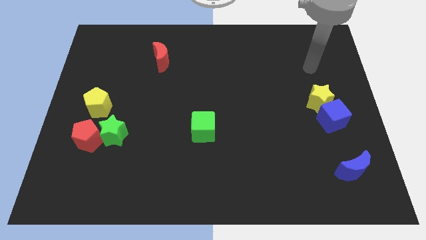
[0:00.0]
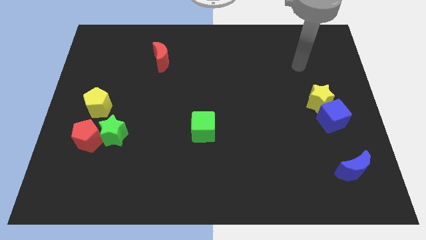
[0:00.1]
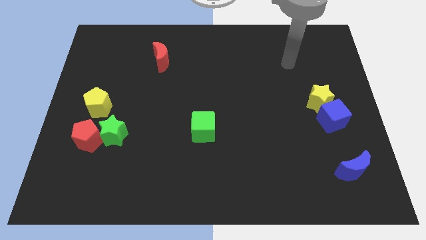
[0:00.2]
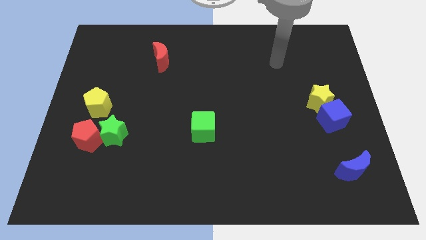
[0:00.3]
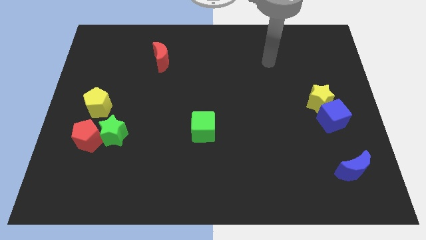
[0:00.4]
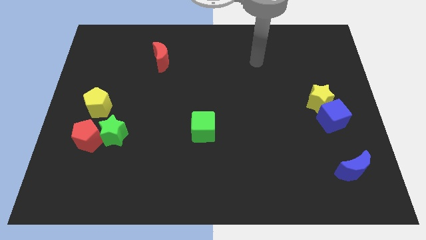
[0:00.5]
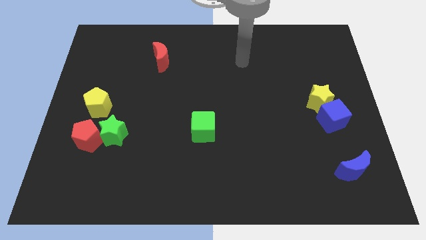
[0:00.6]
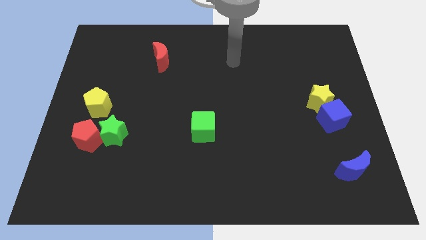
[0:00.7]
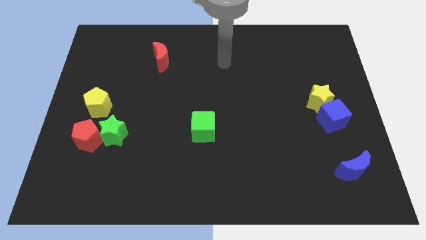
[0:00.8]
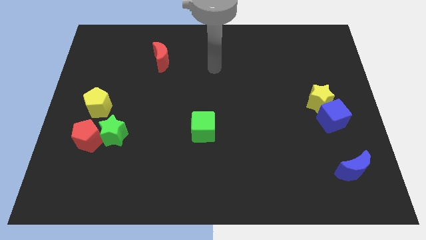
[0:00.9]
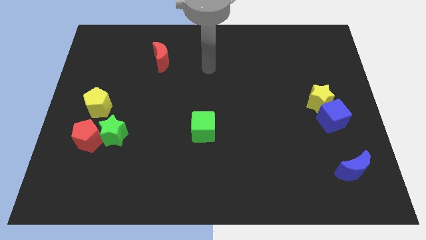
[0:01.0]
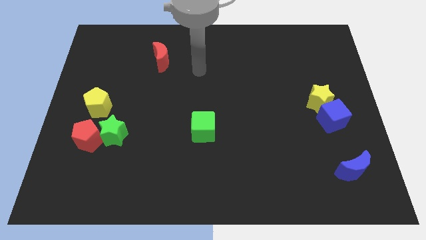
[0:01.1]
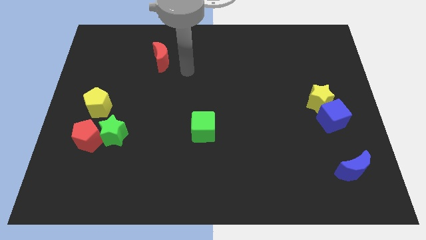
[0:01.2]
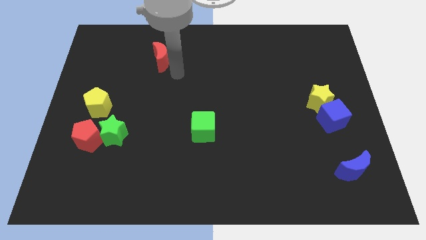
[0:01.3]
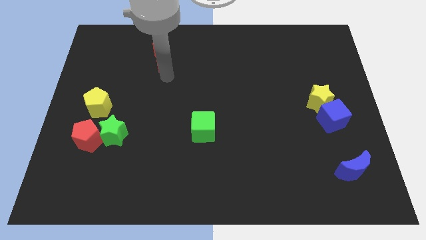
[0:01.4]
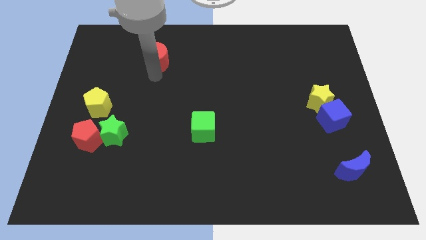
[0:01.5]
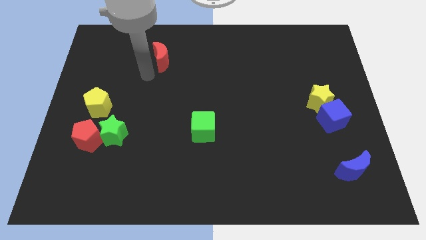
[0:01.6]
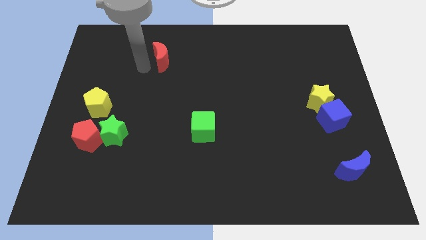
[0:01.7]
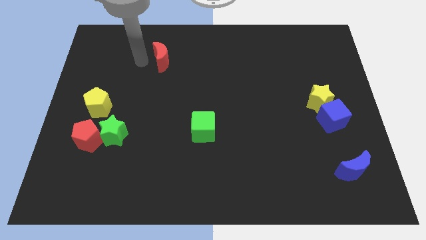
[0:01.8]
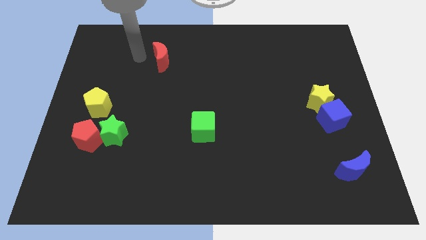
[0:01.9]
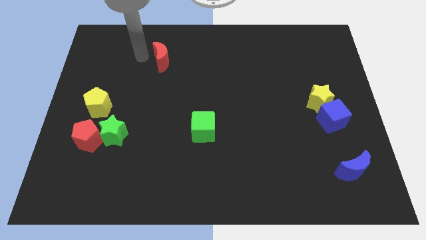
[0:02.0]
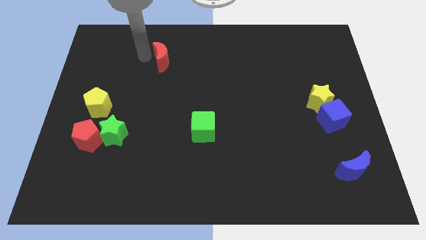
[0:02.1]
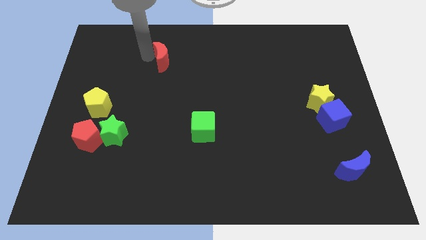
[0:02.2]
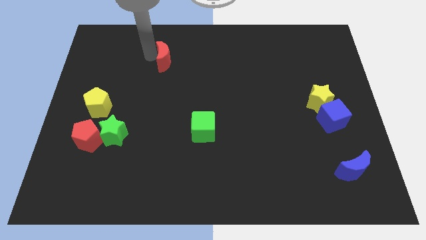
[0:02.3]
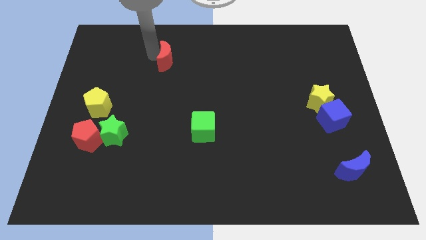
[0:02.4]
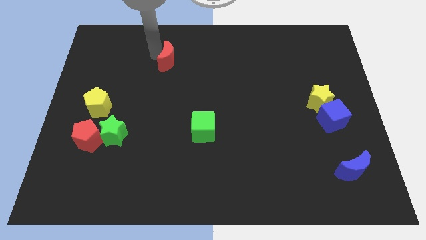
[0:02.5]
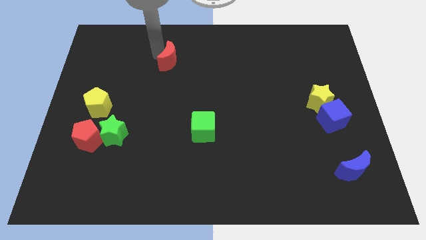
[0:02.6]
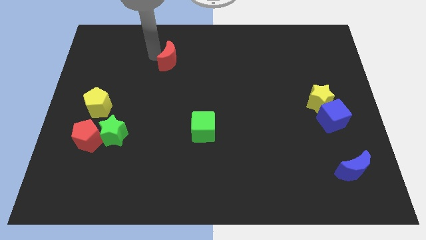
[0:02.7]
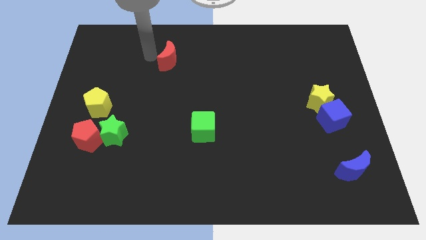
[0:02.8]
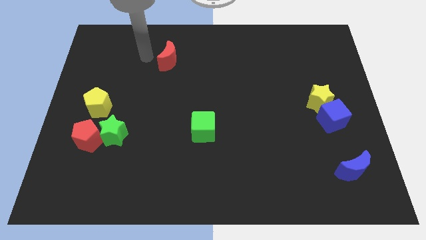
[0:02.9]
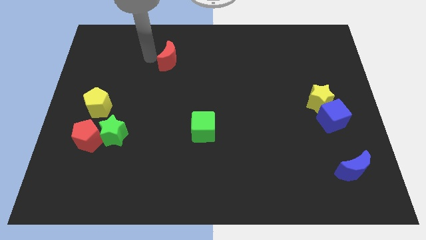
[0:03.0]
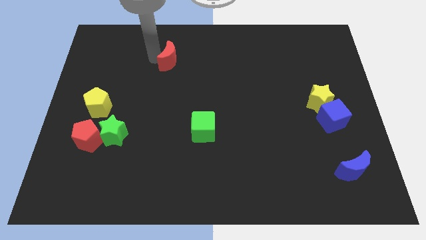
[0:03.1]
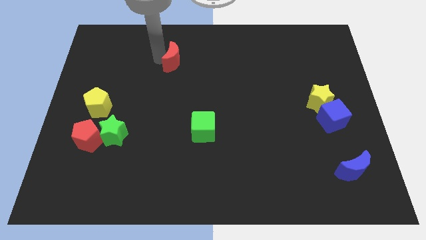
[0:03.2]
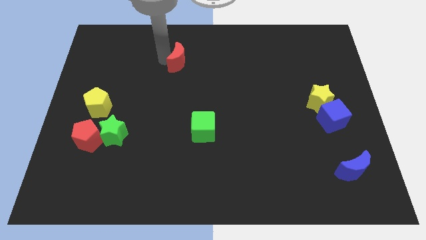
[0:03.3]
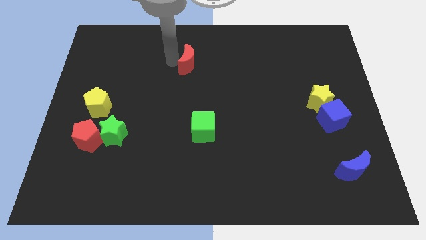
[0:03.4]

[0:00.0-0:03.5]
move the red moon right a bit

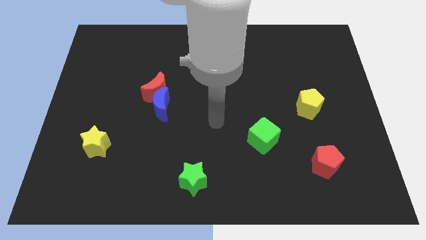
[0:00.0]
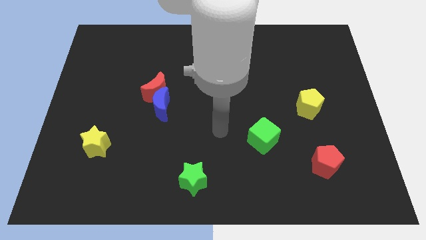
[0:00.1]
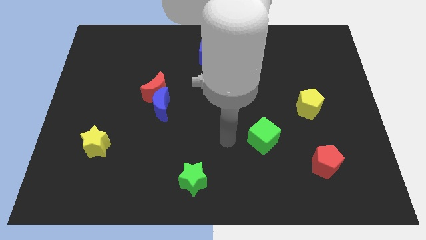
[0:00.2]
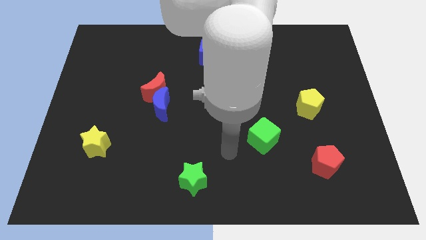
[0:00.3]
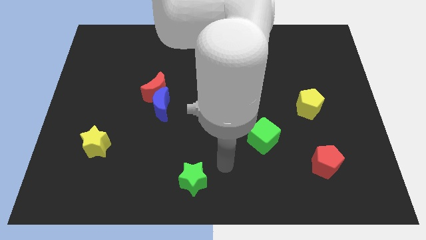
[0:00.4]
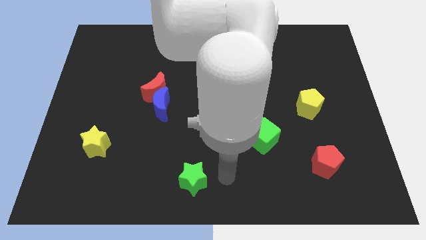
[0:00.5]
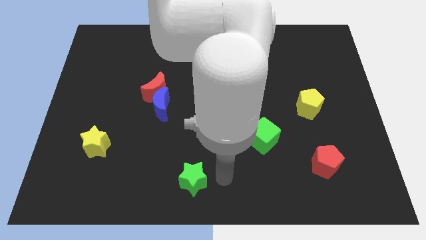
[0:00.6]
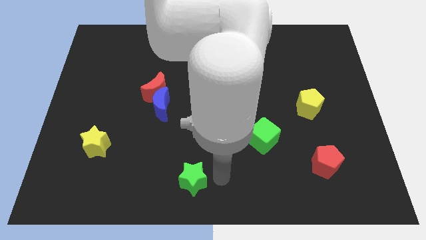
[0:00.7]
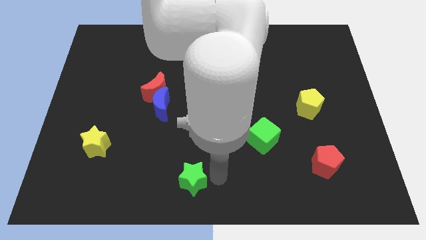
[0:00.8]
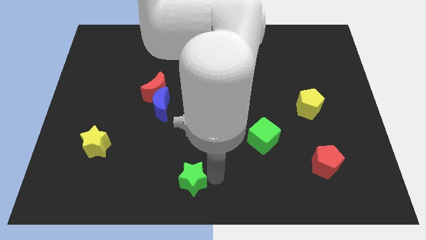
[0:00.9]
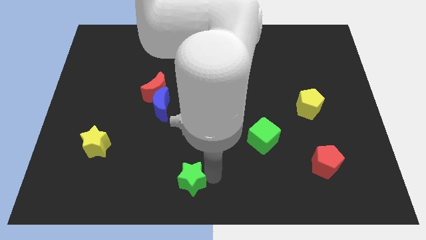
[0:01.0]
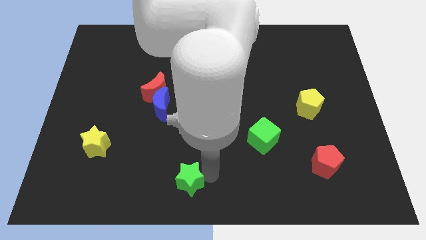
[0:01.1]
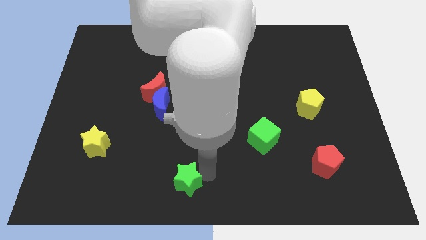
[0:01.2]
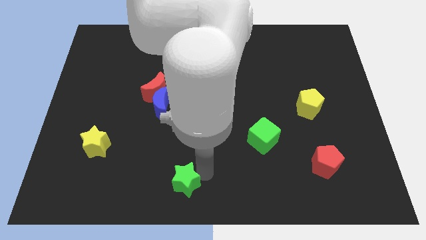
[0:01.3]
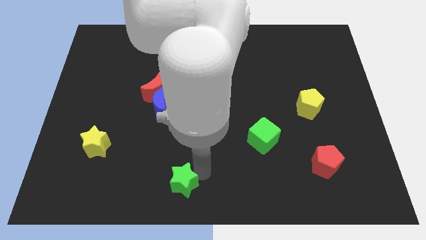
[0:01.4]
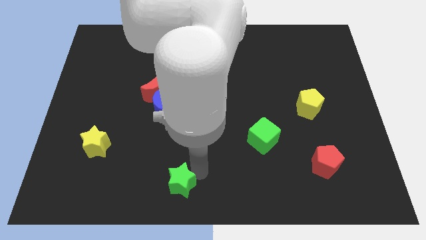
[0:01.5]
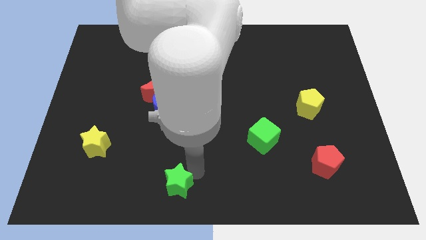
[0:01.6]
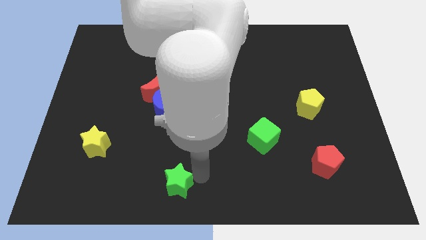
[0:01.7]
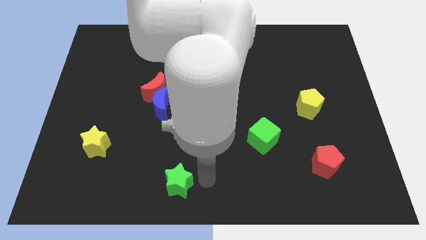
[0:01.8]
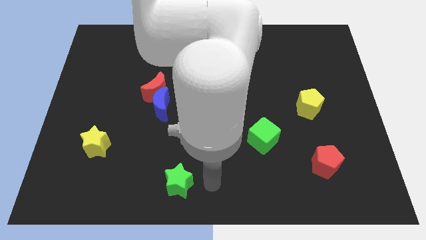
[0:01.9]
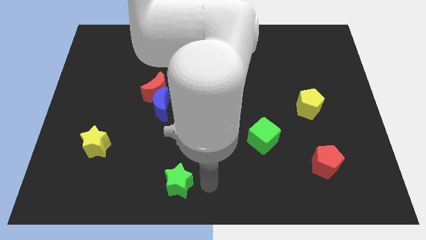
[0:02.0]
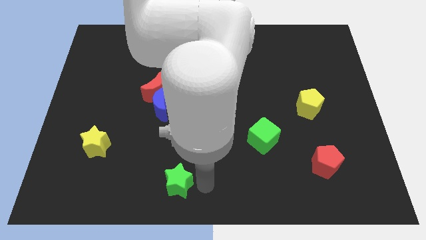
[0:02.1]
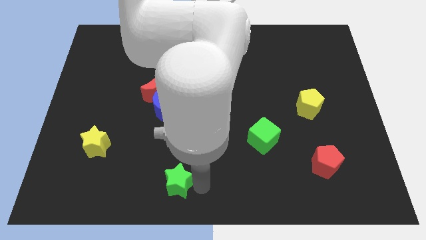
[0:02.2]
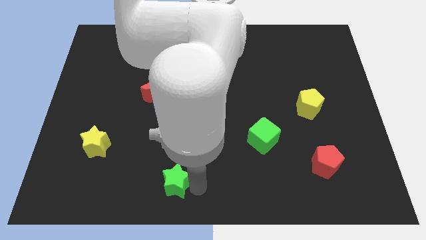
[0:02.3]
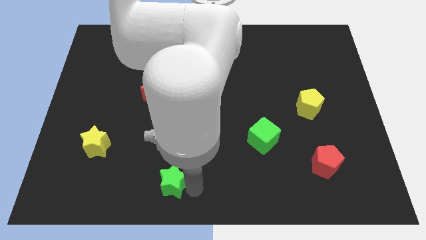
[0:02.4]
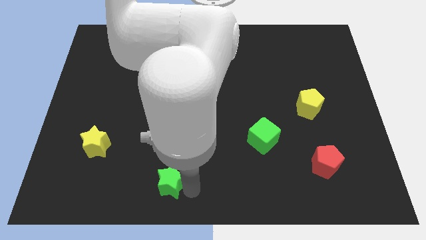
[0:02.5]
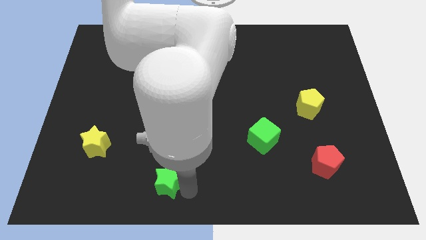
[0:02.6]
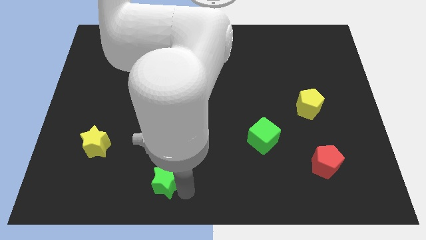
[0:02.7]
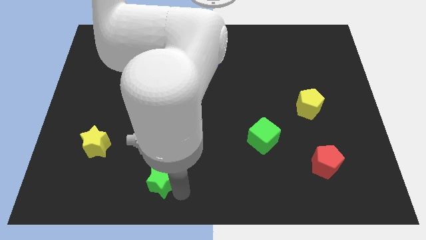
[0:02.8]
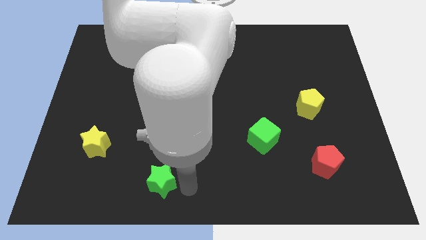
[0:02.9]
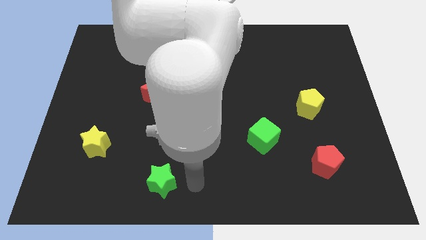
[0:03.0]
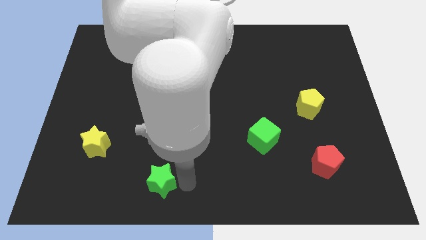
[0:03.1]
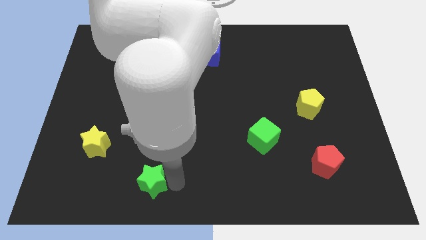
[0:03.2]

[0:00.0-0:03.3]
push the green star to the left somewhat

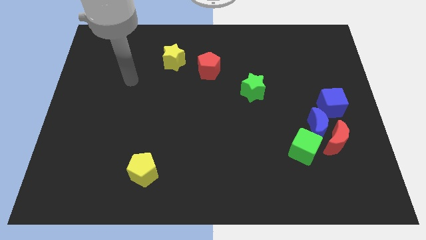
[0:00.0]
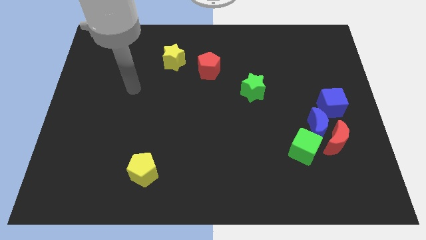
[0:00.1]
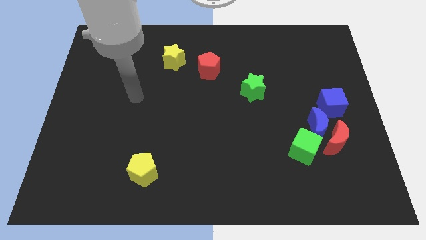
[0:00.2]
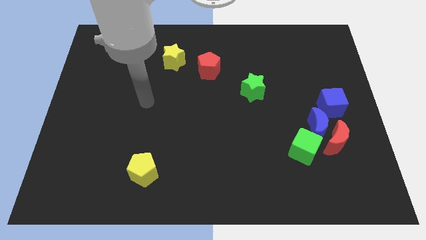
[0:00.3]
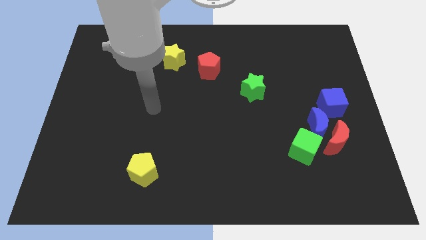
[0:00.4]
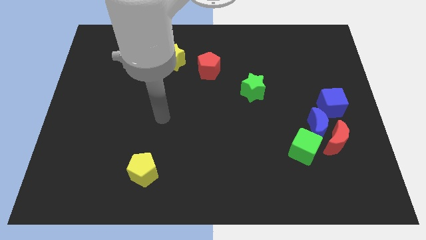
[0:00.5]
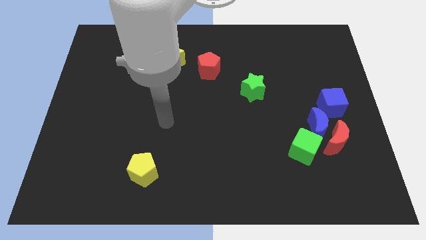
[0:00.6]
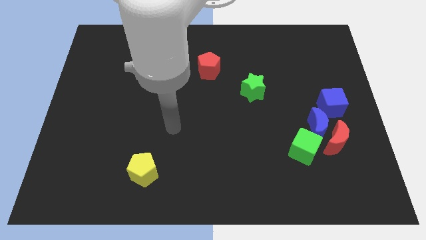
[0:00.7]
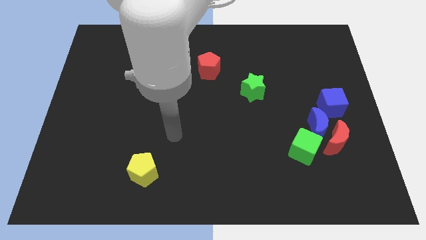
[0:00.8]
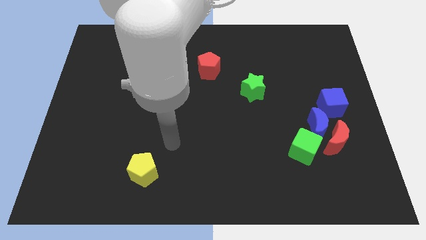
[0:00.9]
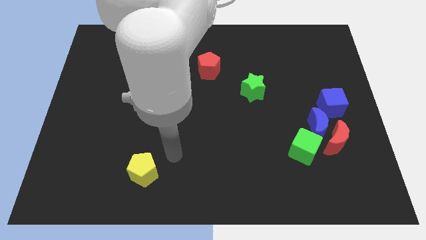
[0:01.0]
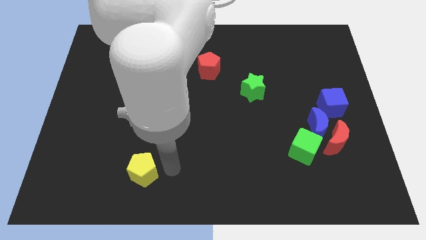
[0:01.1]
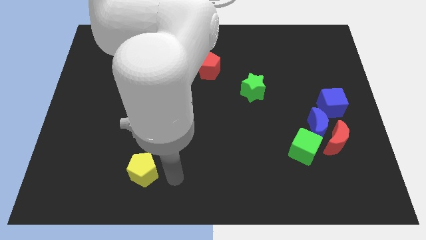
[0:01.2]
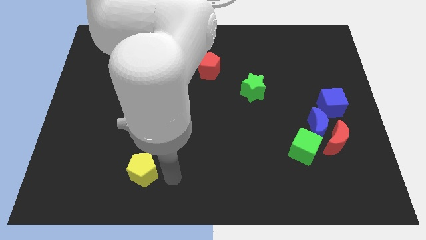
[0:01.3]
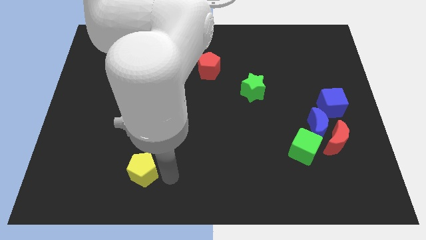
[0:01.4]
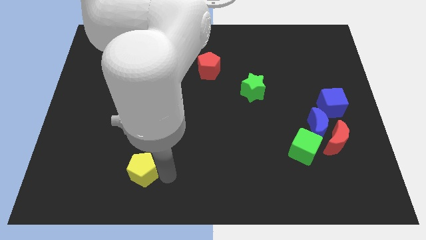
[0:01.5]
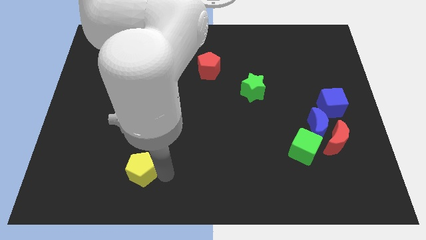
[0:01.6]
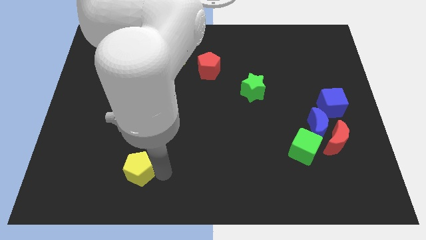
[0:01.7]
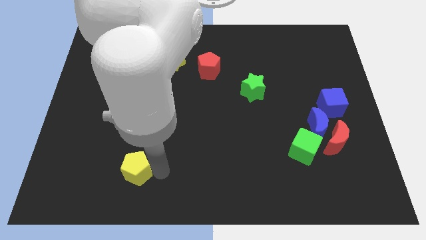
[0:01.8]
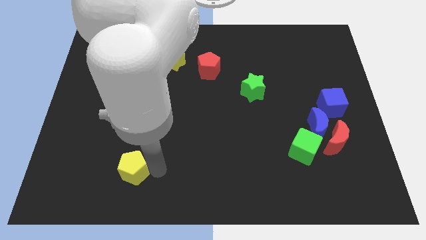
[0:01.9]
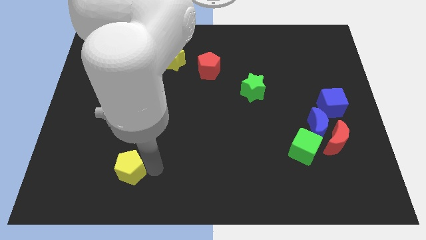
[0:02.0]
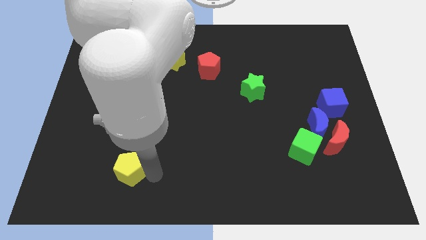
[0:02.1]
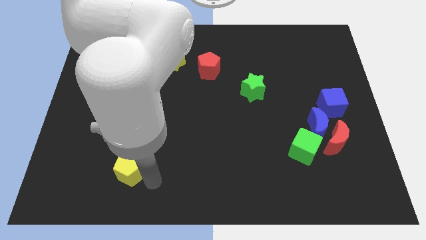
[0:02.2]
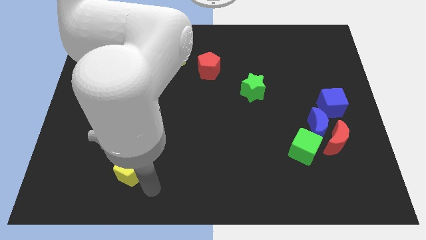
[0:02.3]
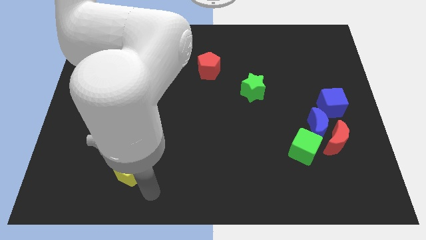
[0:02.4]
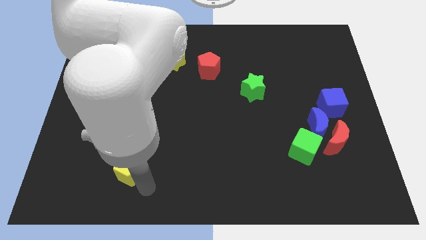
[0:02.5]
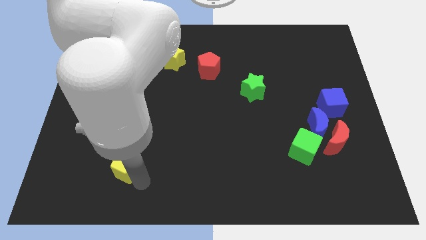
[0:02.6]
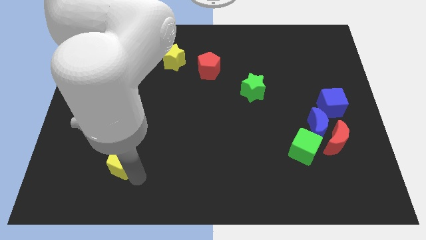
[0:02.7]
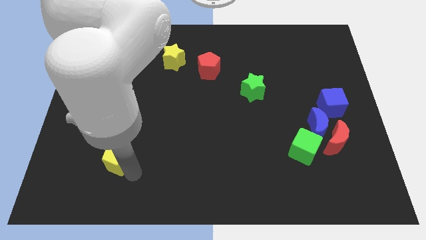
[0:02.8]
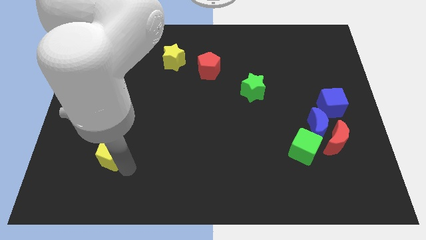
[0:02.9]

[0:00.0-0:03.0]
slightly slide the yellow pentagon diagonally up and to the left
